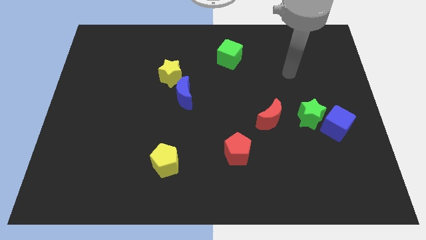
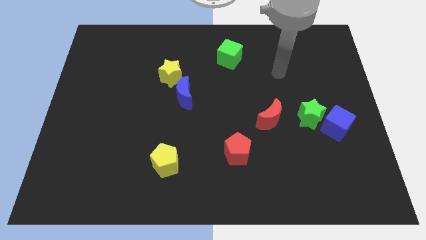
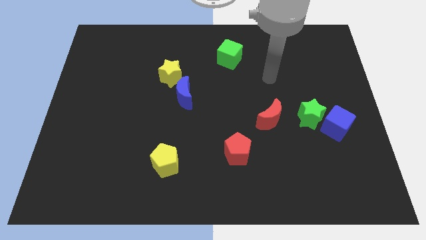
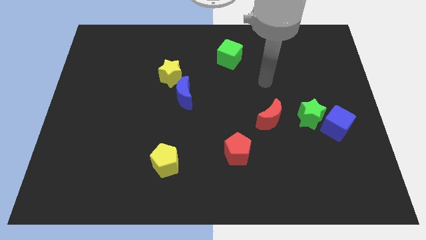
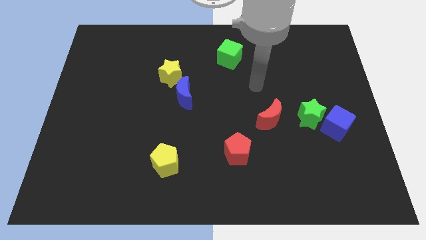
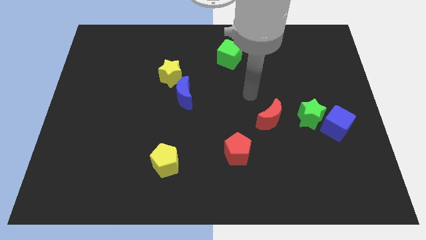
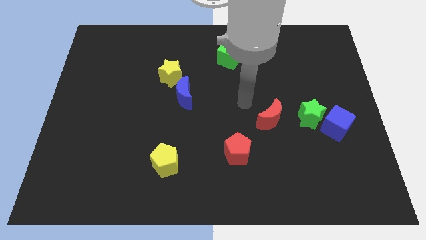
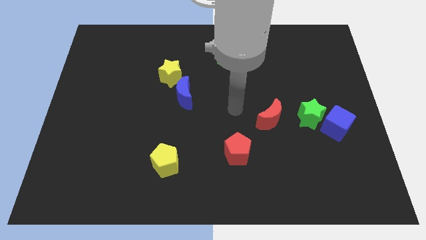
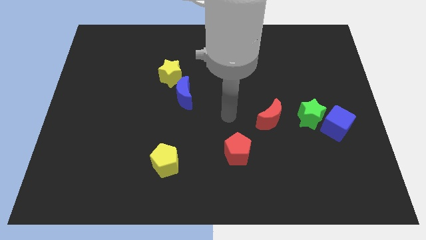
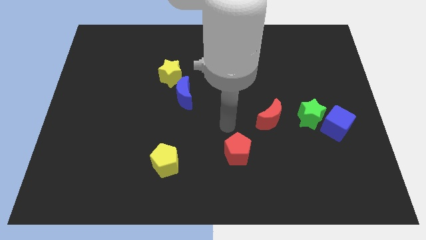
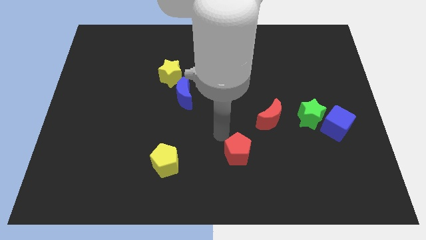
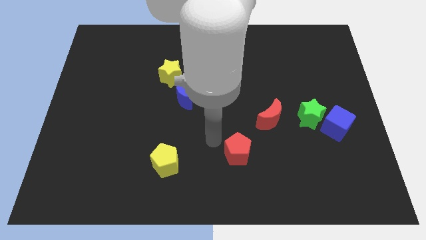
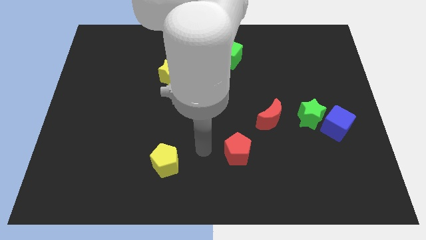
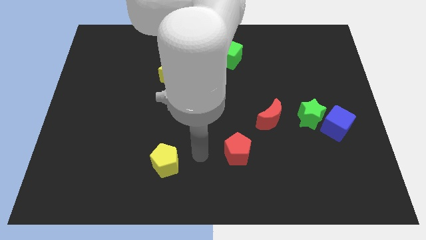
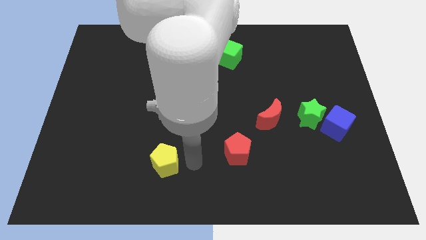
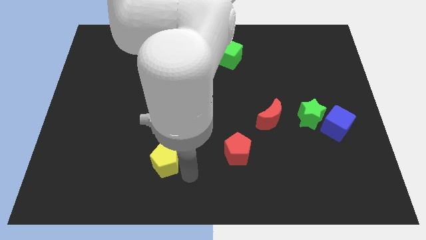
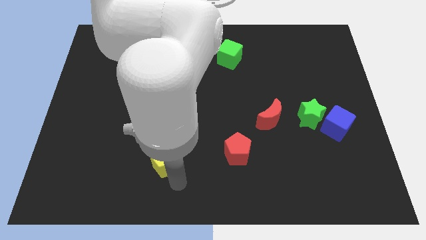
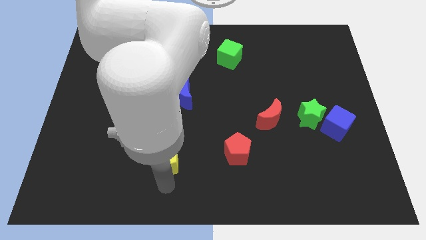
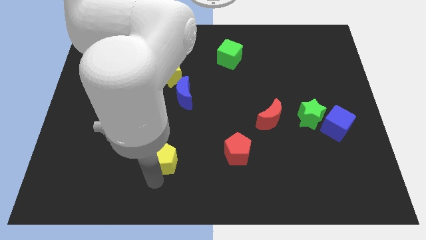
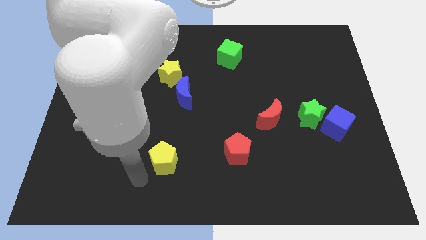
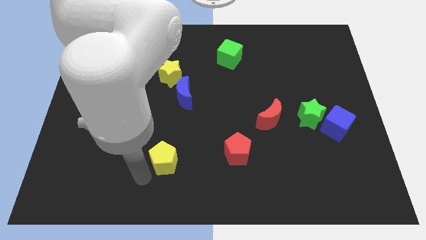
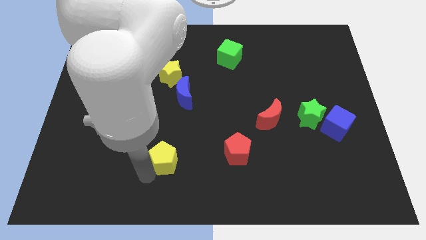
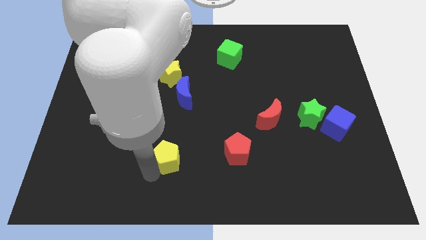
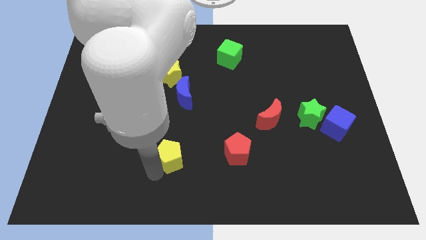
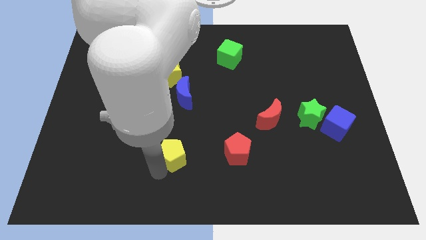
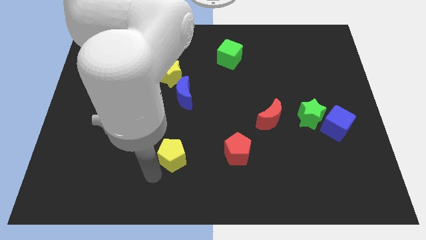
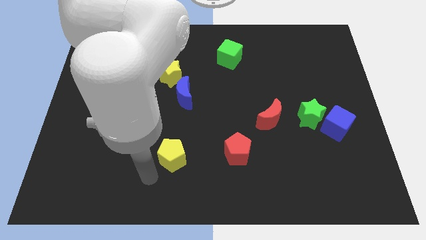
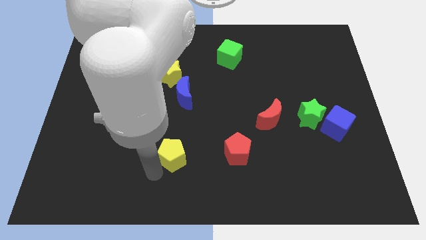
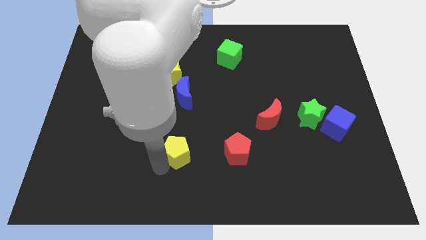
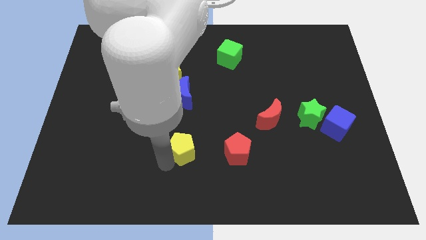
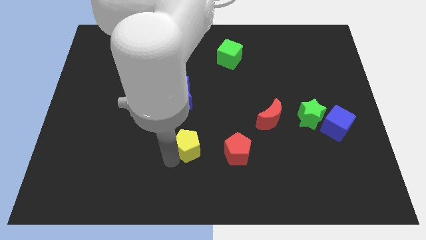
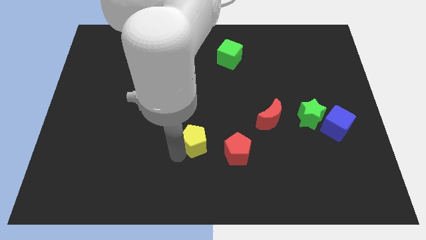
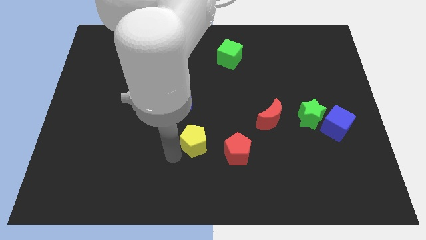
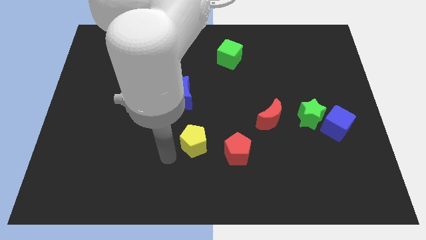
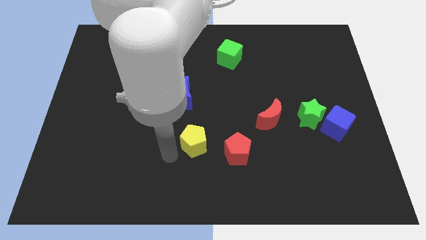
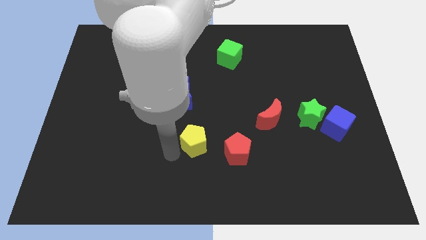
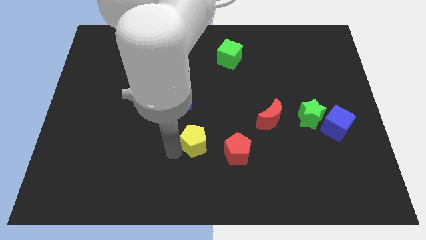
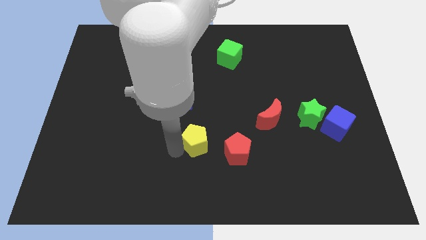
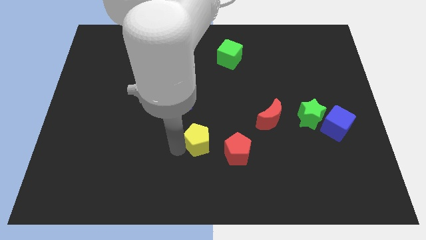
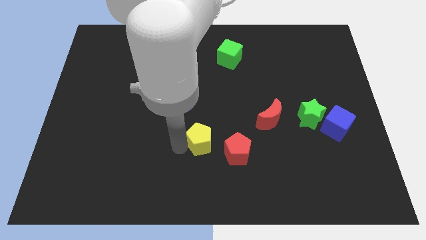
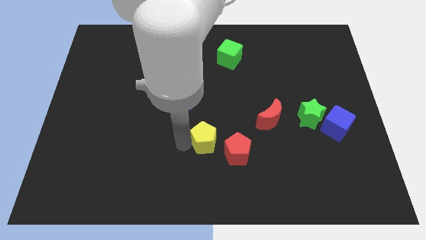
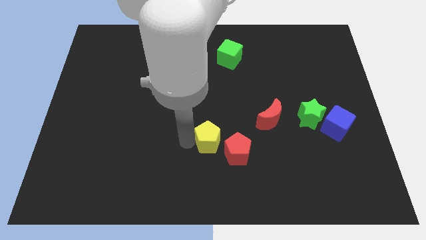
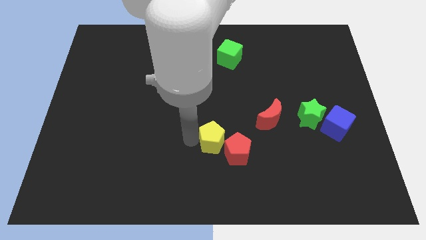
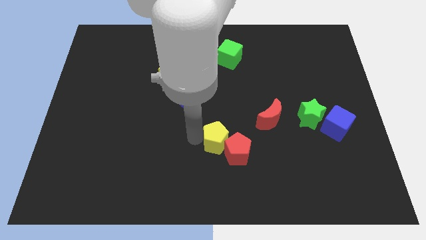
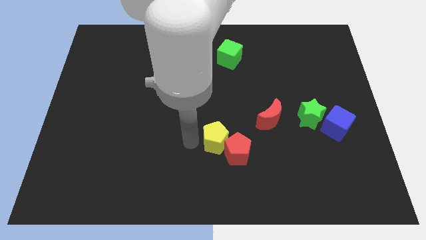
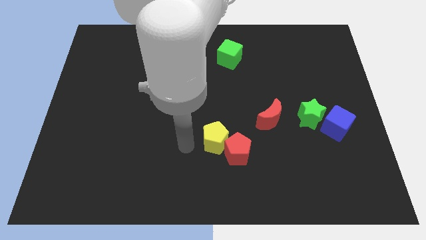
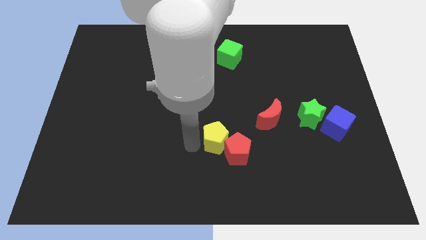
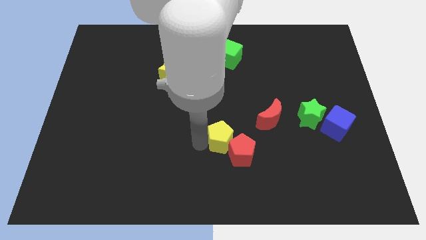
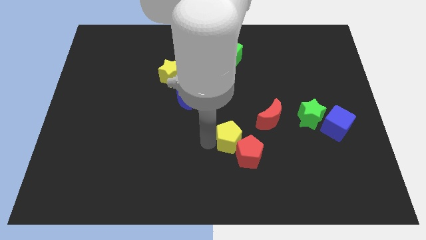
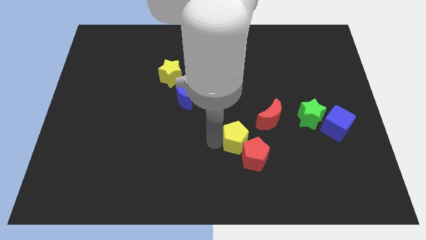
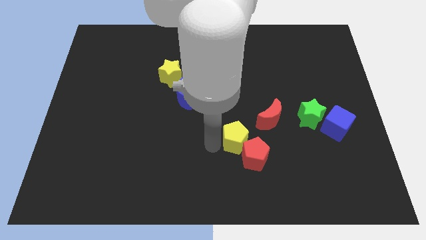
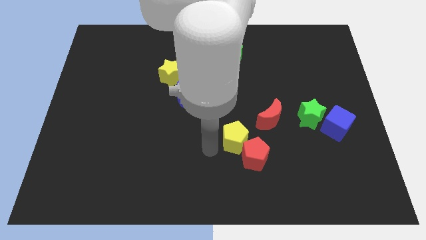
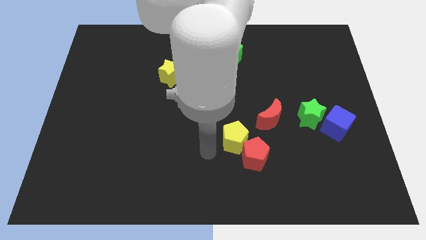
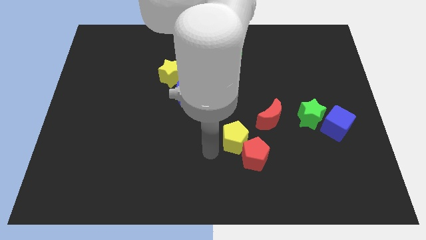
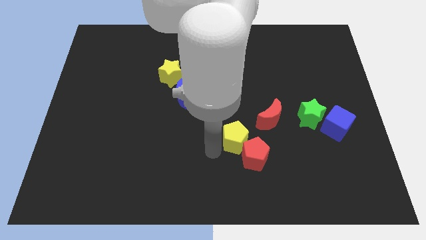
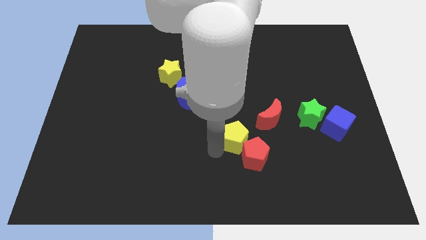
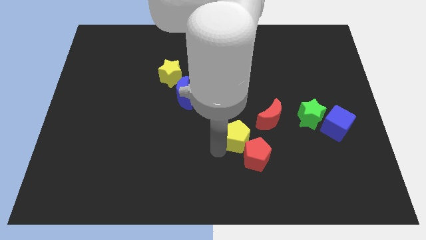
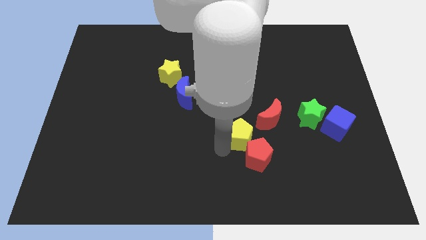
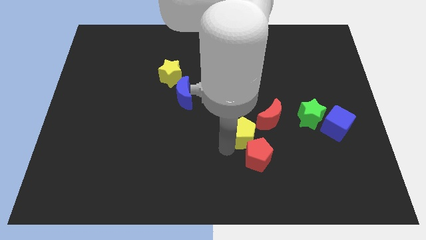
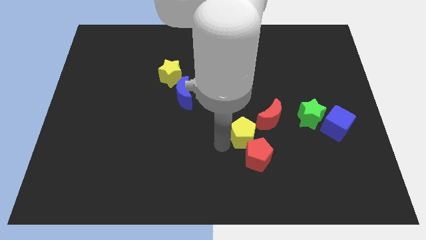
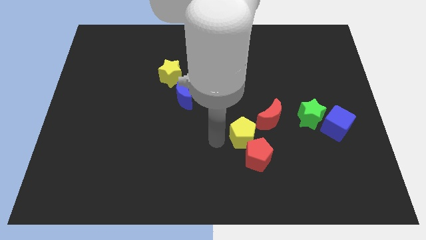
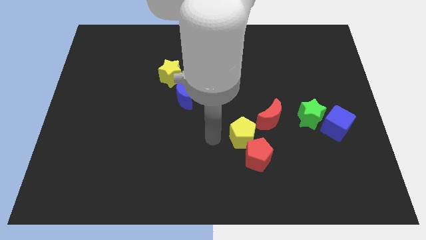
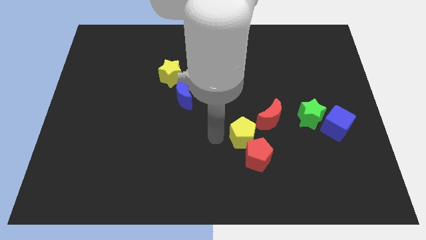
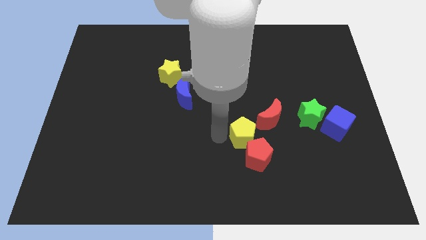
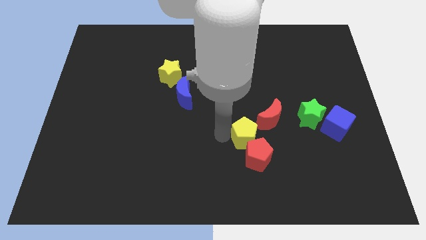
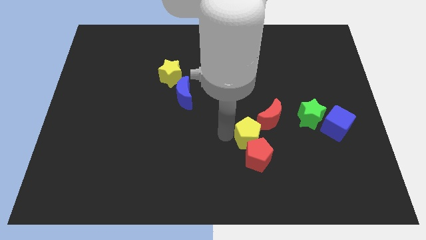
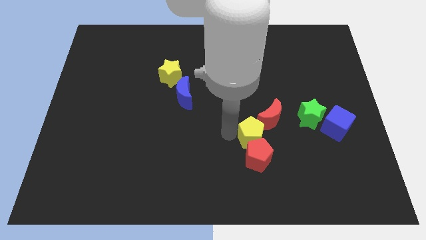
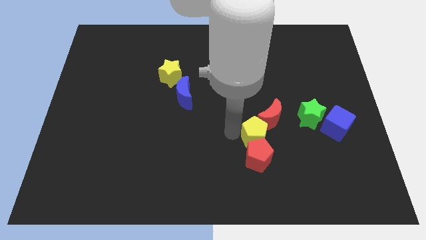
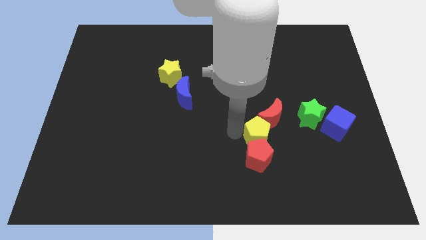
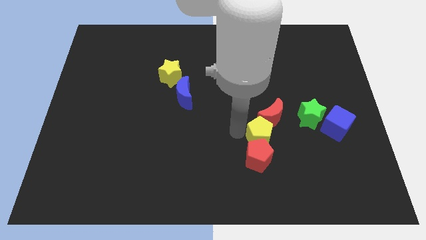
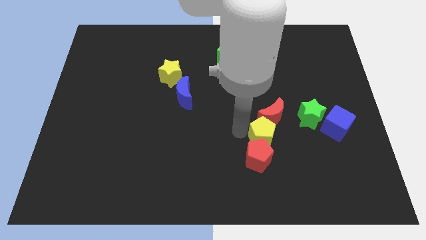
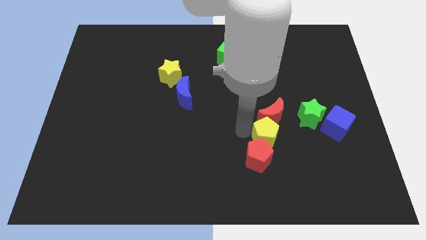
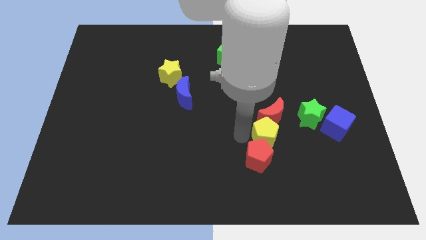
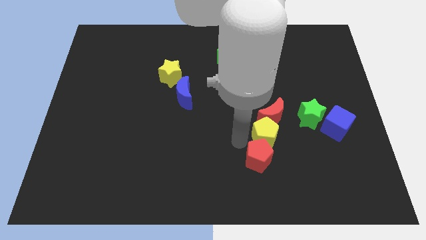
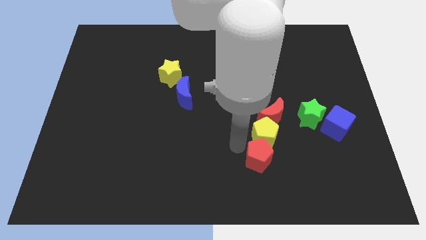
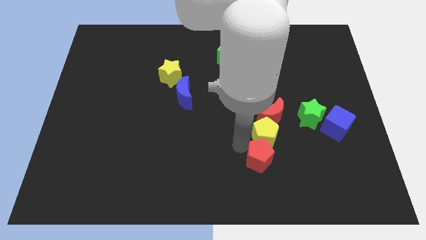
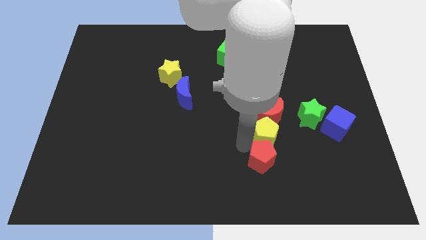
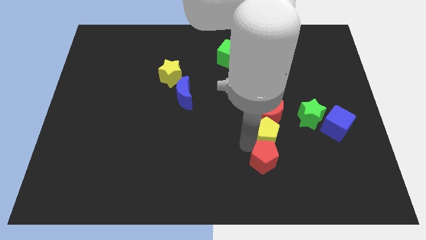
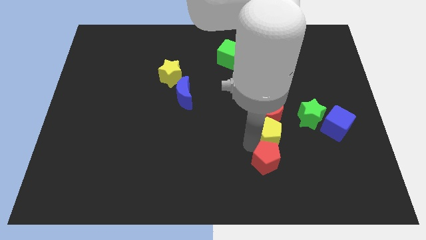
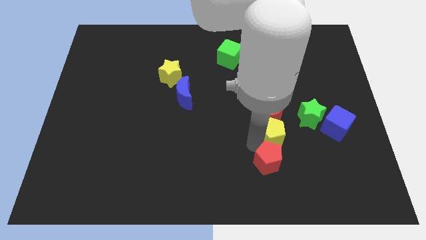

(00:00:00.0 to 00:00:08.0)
push the yellow pentagon to the left of the blue cube
